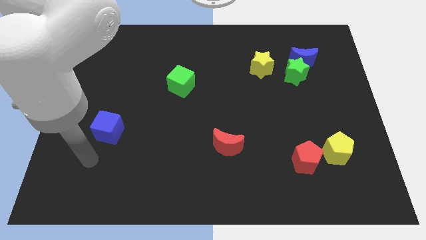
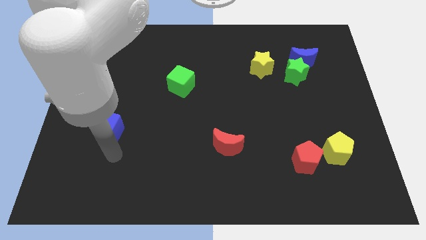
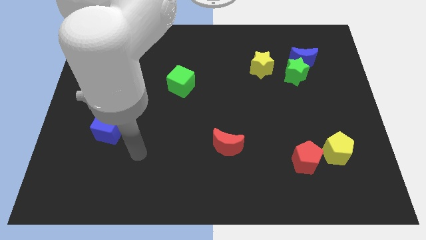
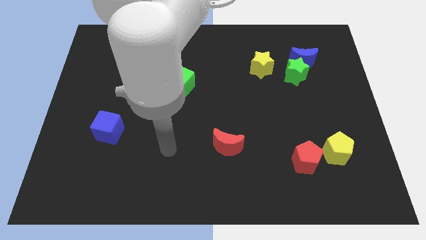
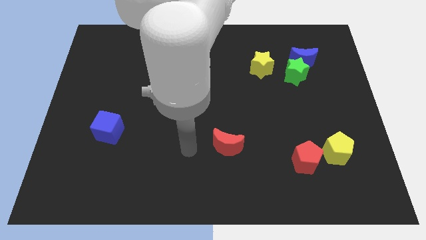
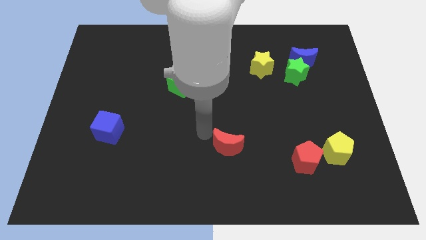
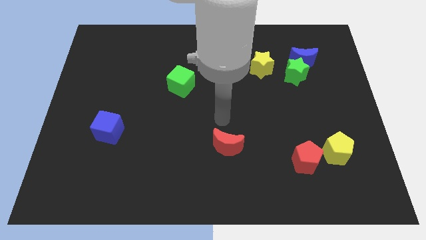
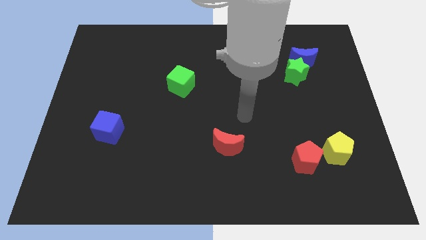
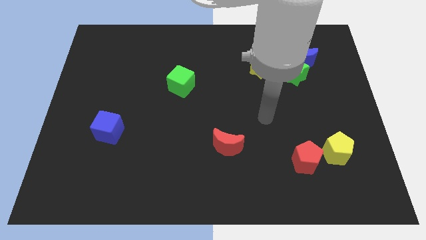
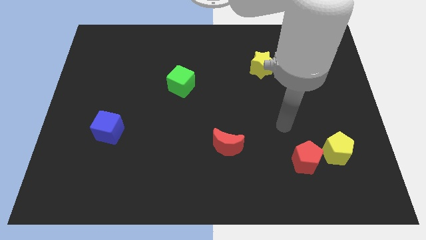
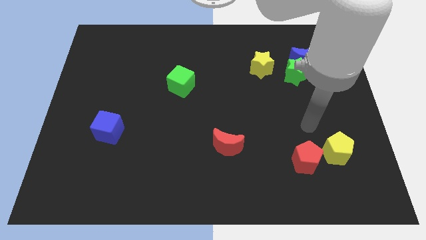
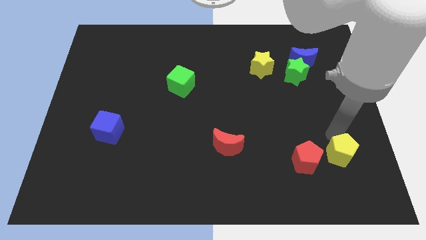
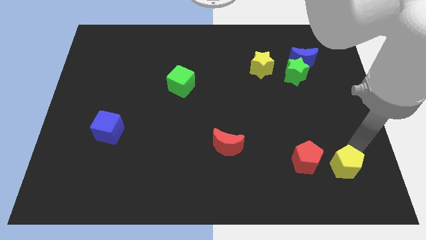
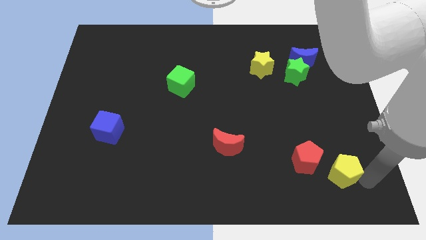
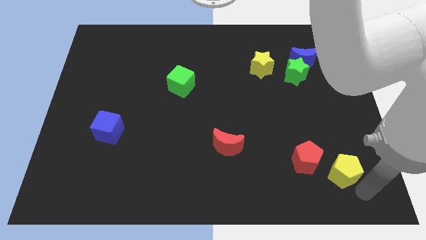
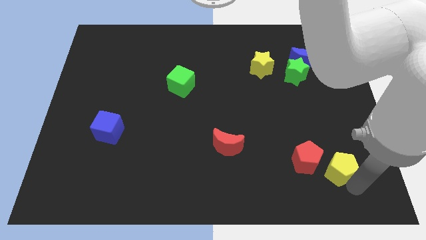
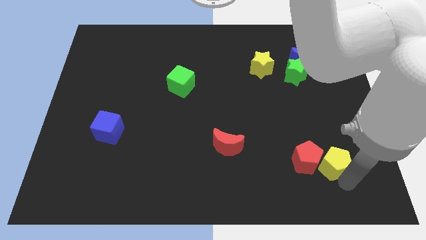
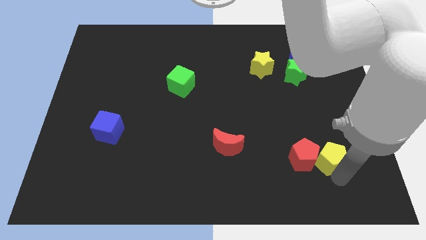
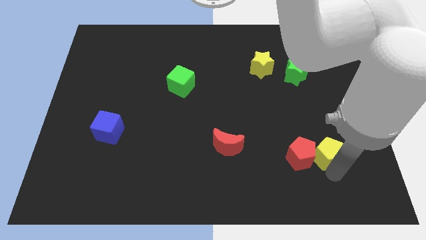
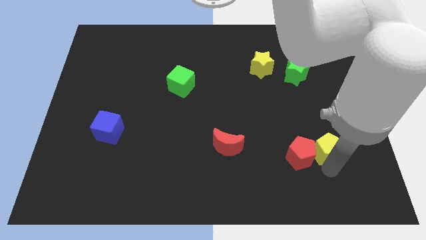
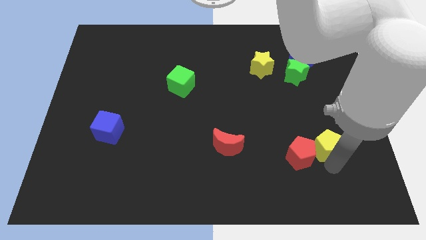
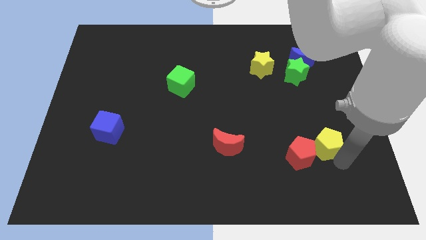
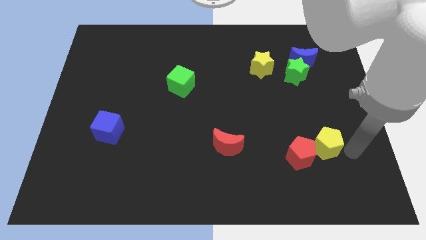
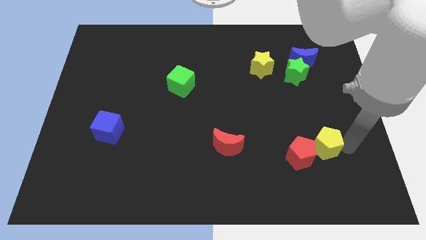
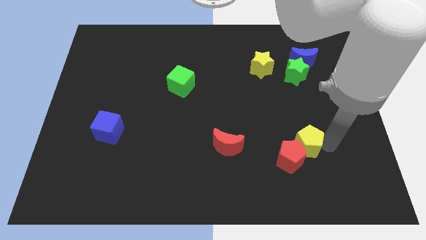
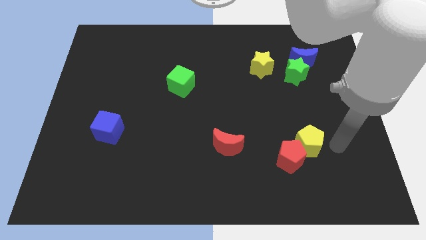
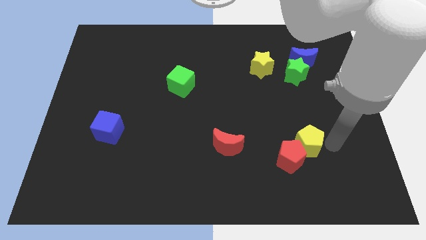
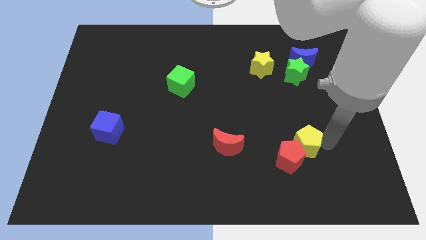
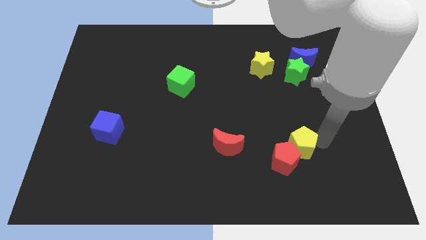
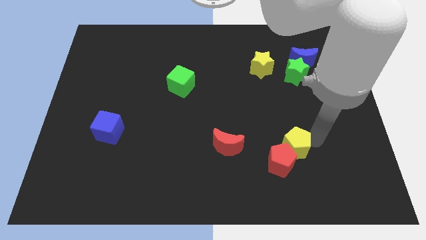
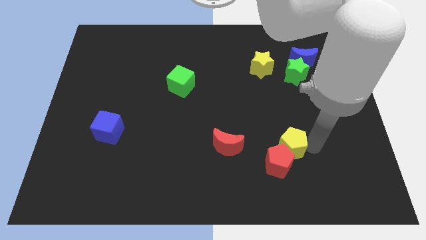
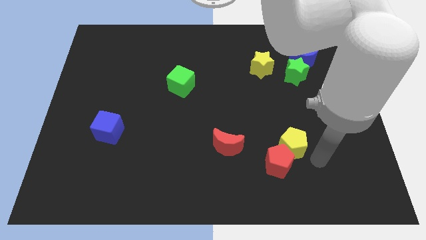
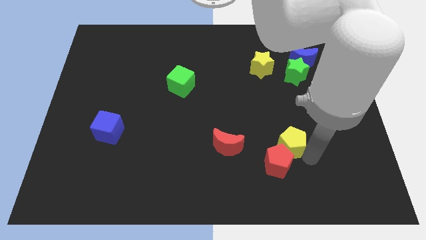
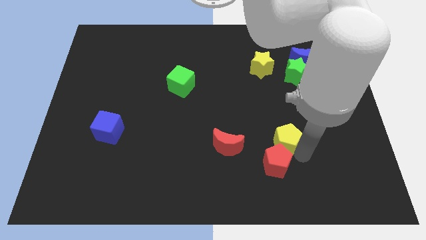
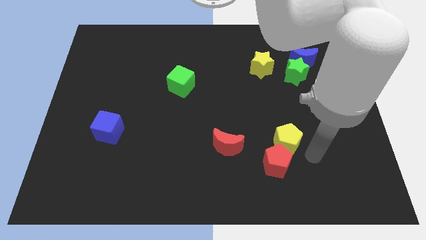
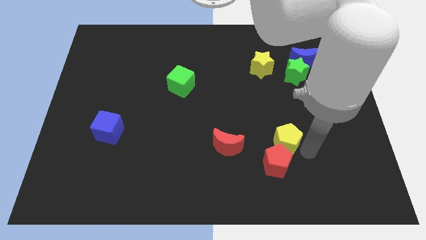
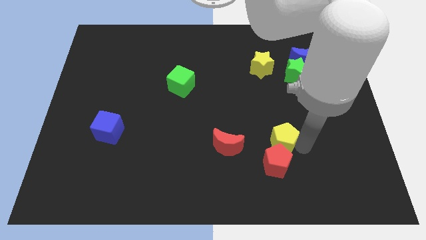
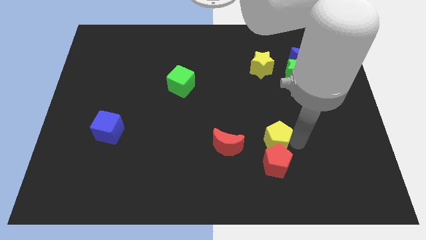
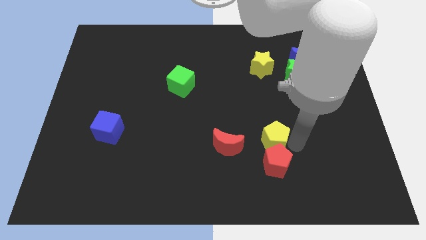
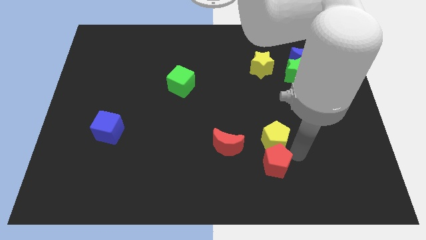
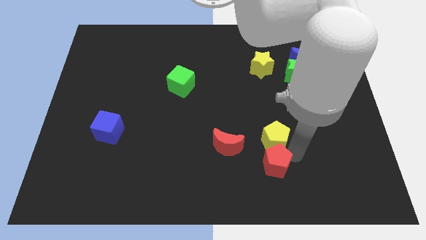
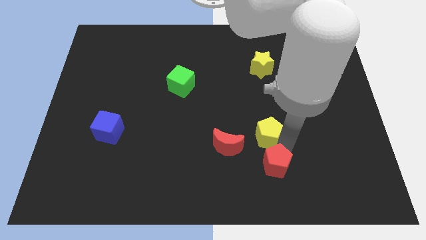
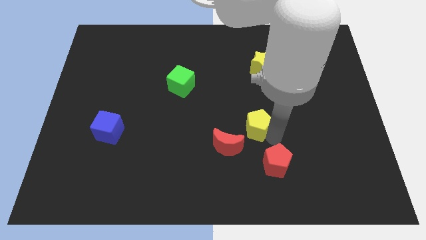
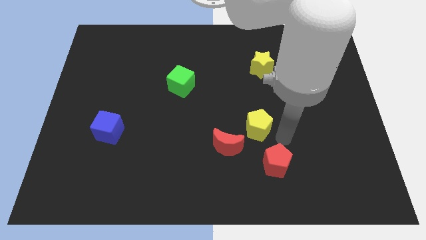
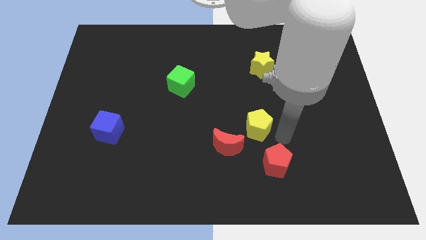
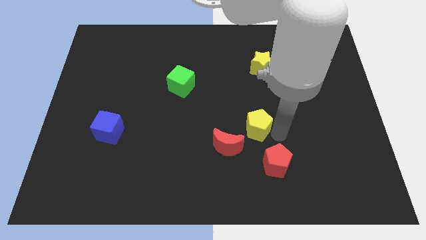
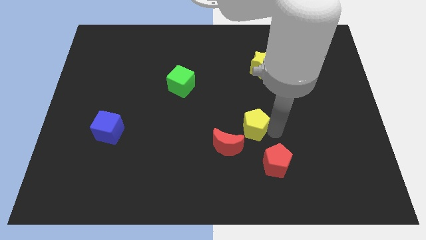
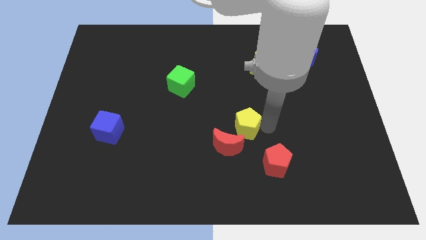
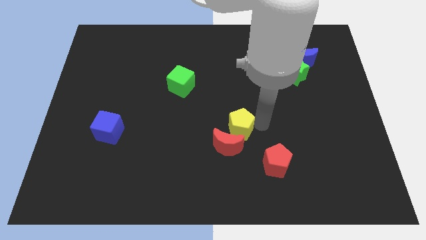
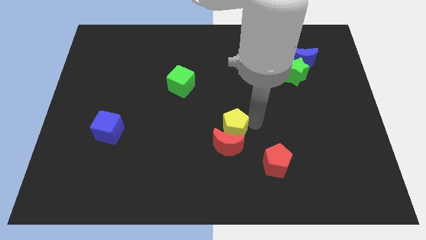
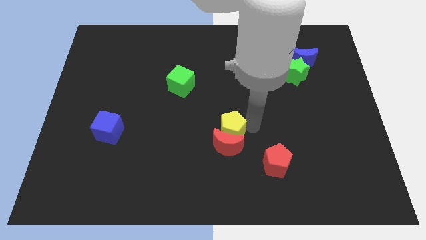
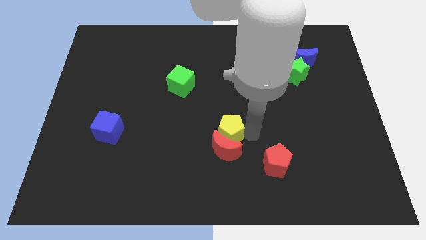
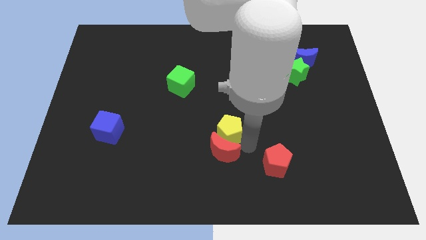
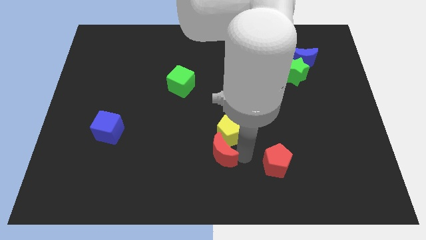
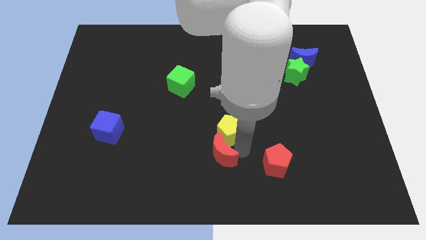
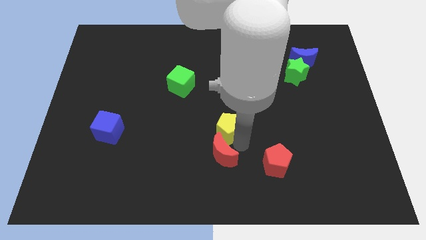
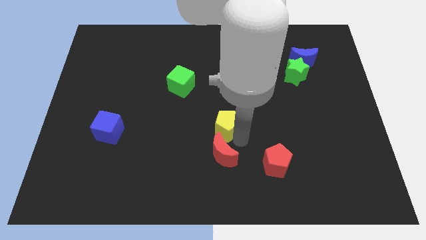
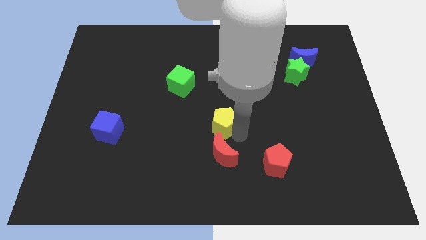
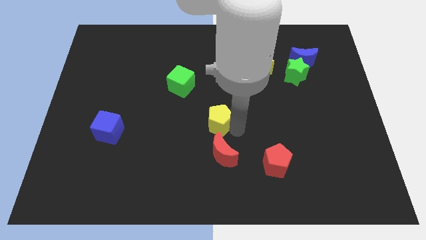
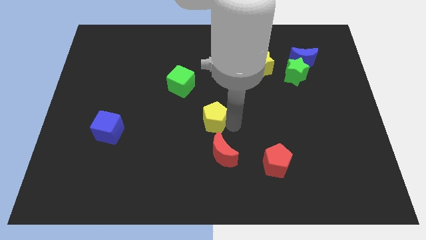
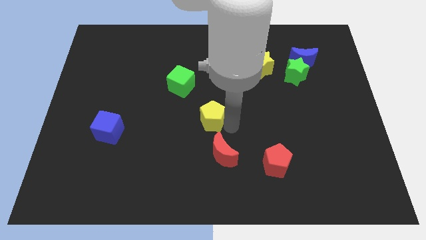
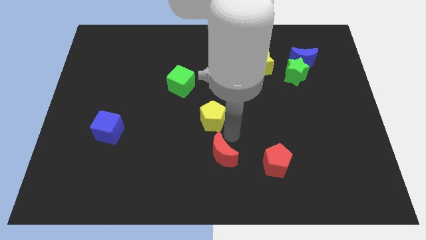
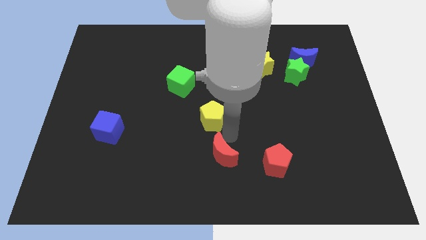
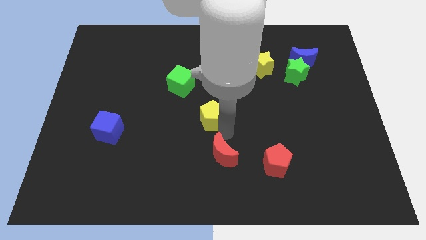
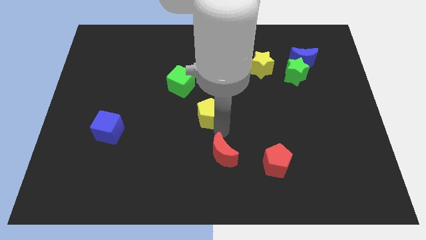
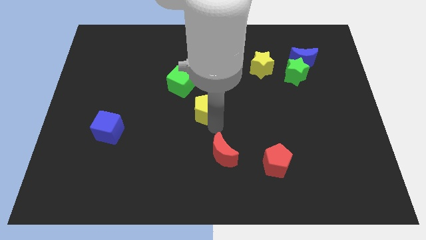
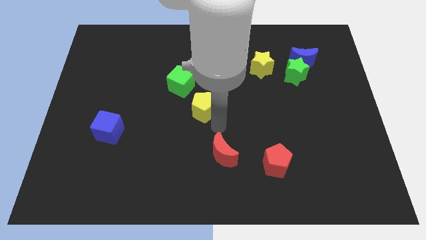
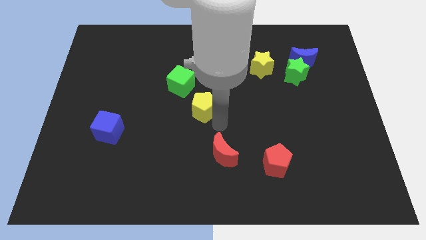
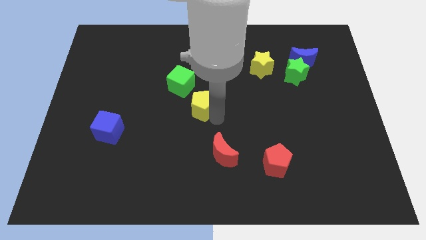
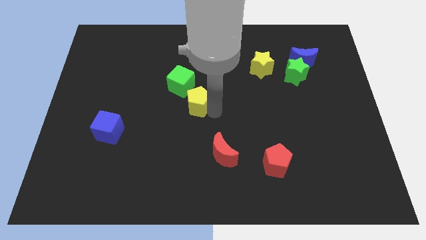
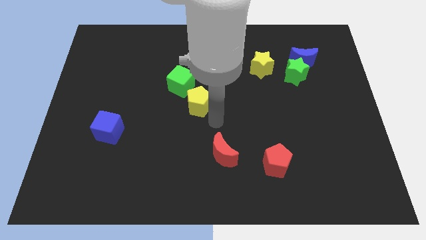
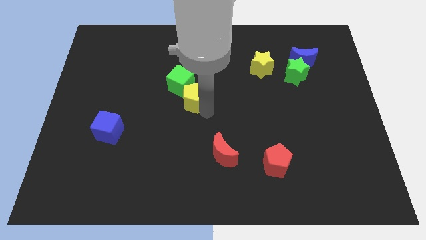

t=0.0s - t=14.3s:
push the yellow pentagon next to the green cube

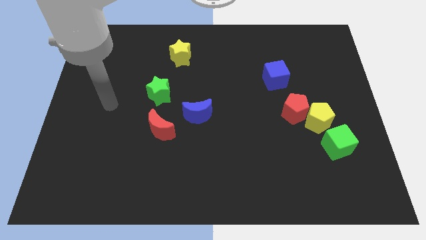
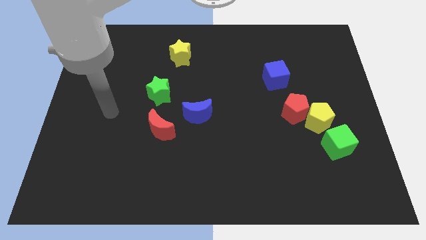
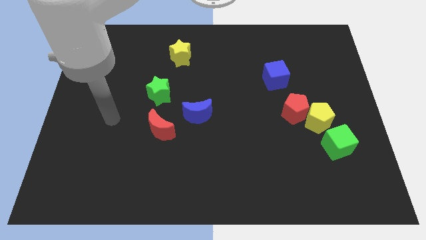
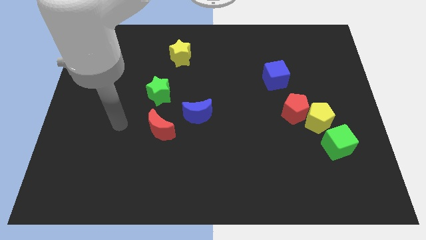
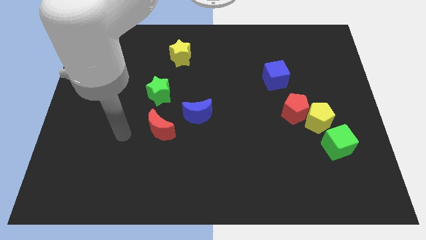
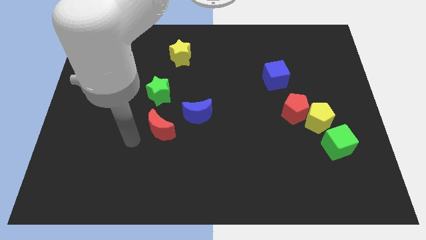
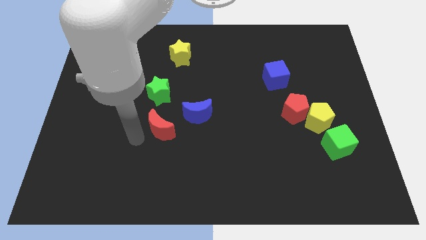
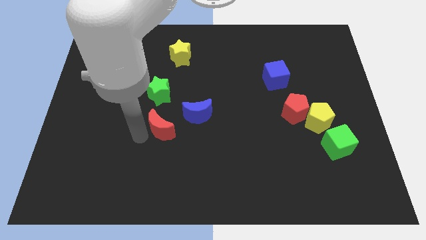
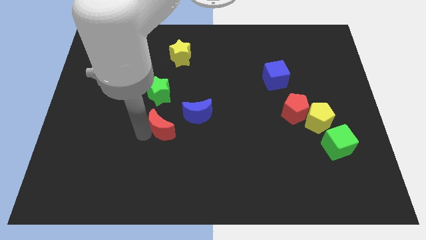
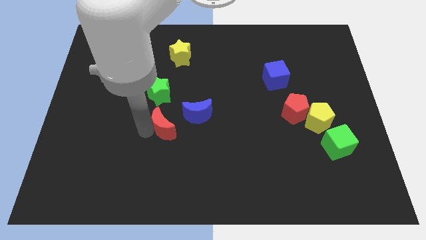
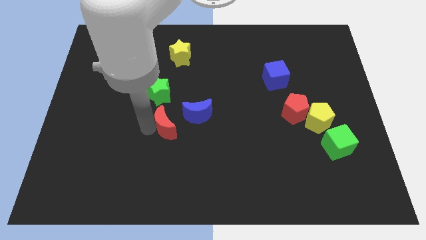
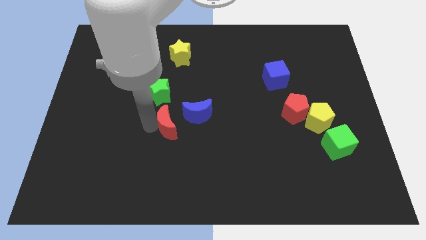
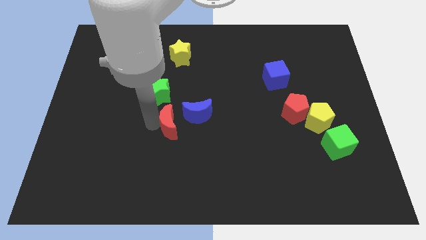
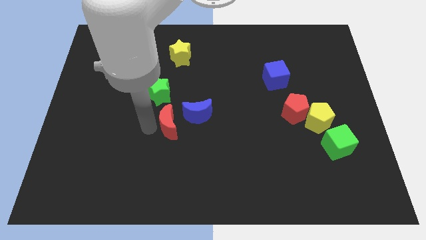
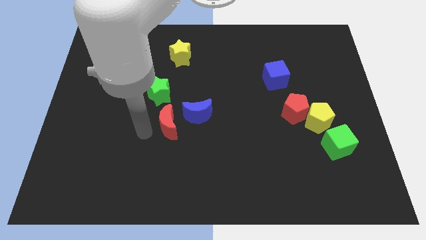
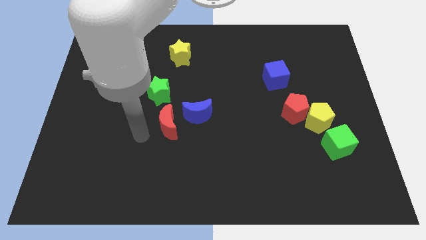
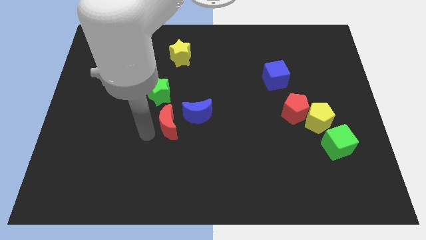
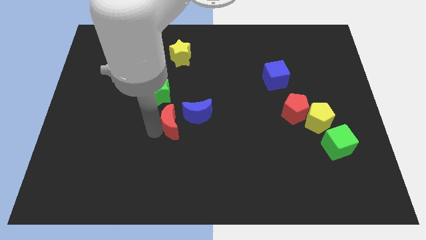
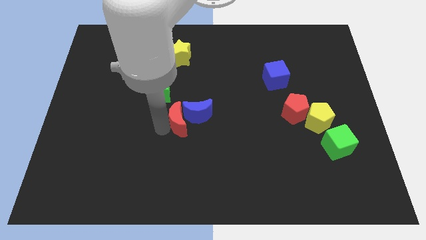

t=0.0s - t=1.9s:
slide the red moon to the blue moon
